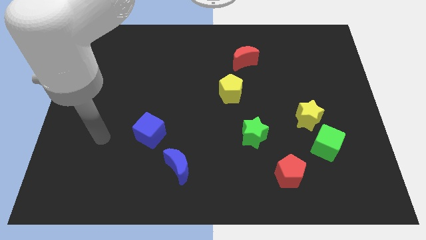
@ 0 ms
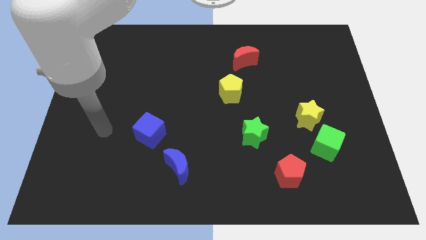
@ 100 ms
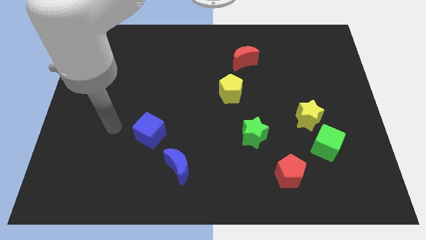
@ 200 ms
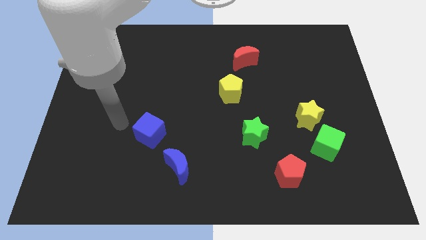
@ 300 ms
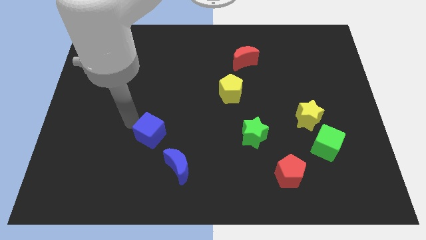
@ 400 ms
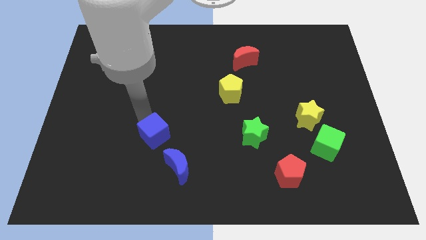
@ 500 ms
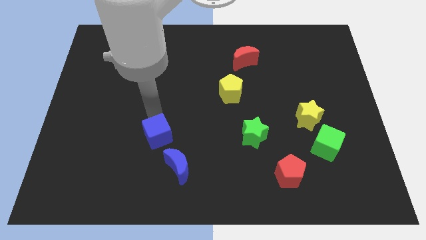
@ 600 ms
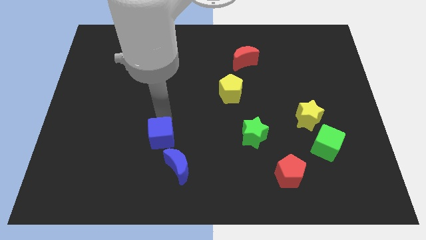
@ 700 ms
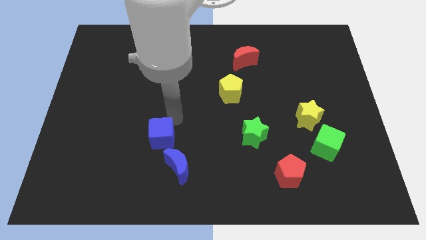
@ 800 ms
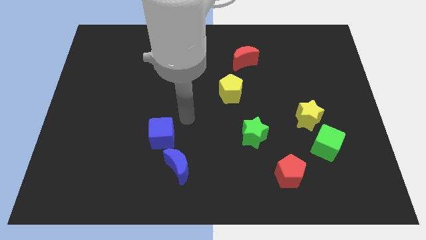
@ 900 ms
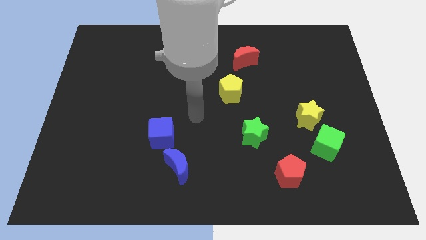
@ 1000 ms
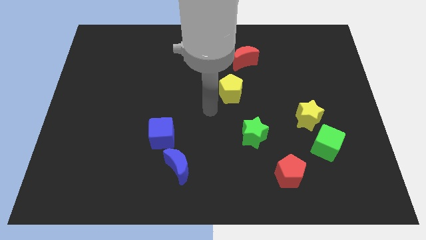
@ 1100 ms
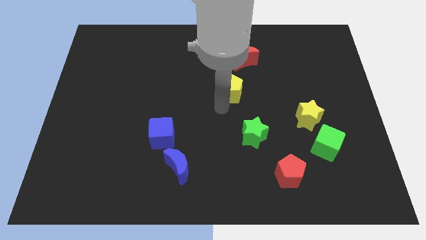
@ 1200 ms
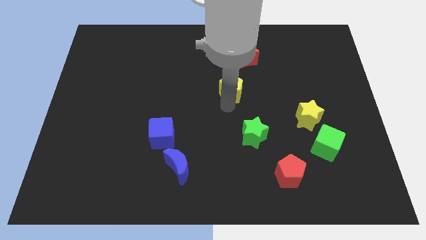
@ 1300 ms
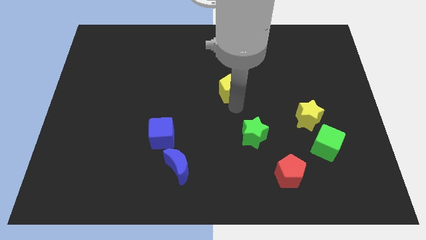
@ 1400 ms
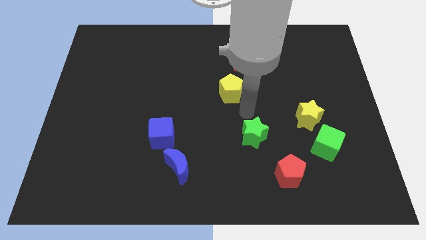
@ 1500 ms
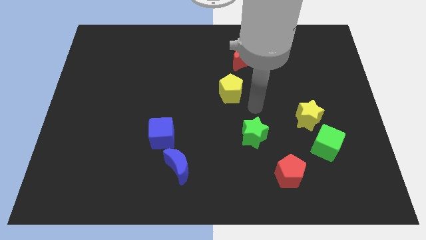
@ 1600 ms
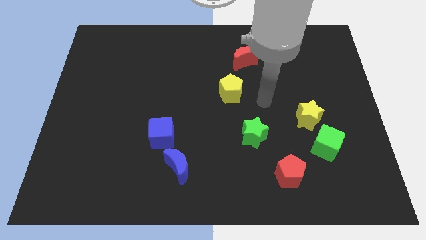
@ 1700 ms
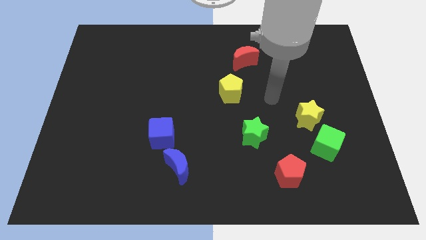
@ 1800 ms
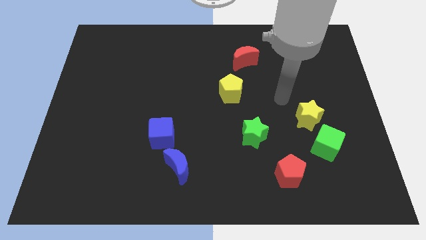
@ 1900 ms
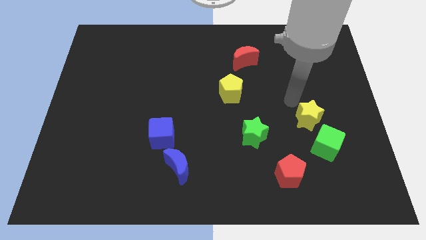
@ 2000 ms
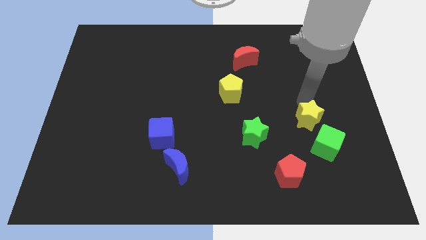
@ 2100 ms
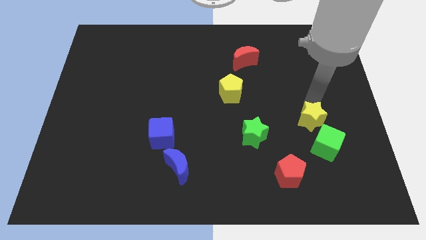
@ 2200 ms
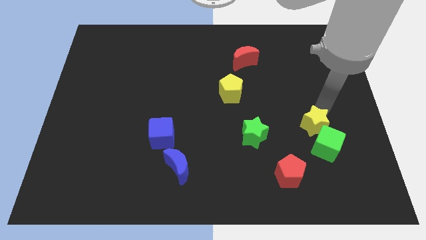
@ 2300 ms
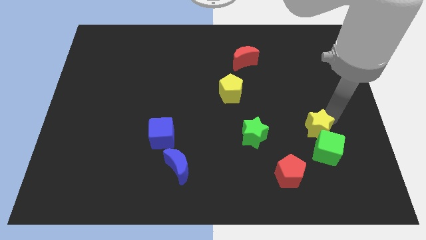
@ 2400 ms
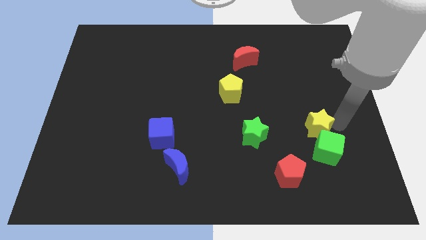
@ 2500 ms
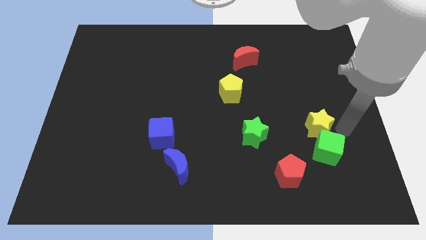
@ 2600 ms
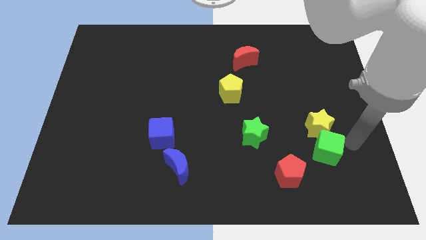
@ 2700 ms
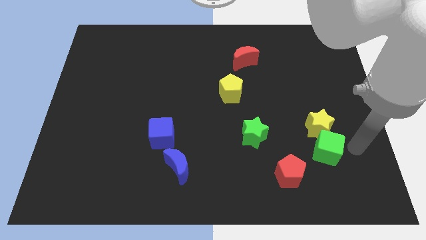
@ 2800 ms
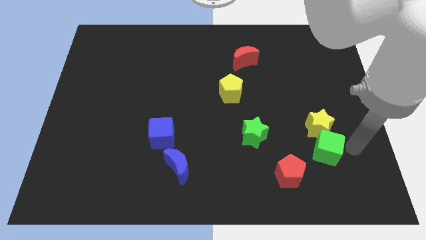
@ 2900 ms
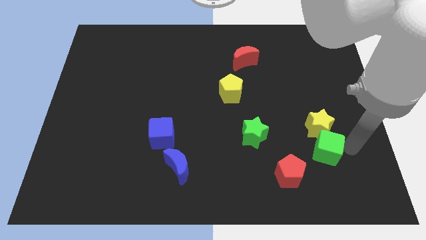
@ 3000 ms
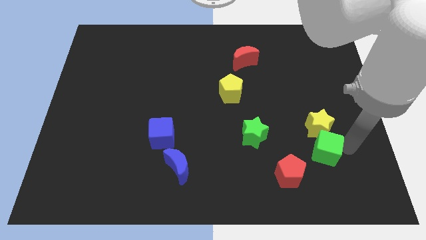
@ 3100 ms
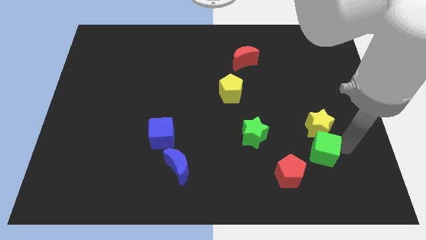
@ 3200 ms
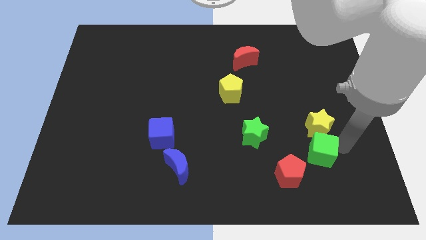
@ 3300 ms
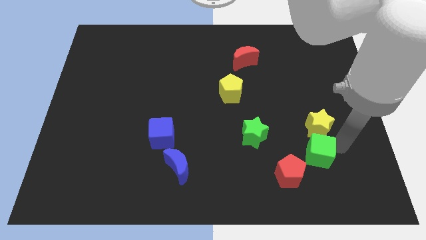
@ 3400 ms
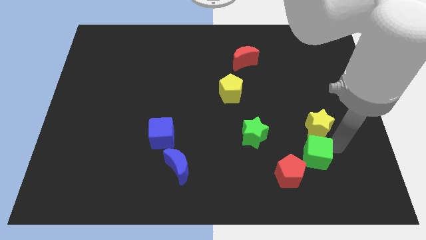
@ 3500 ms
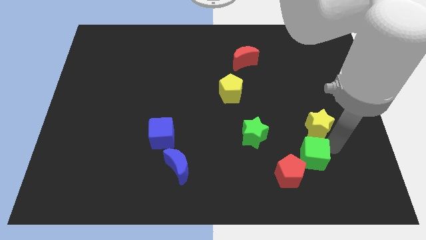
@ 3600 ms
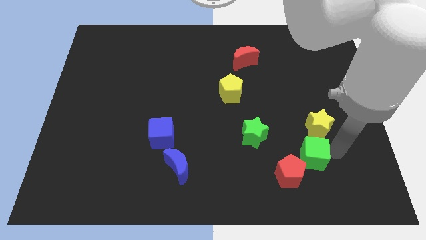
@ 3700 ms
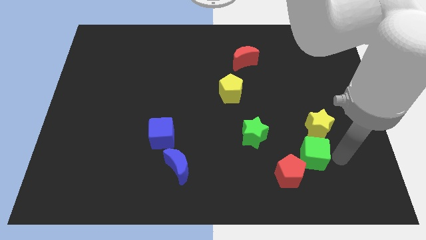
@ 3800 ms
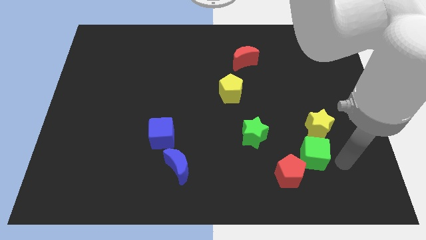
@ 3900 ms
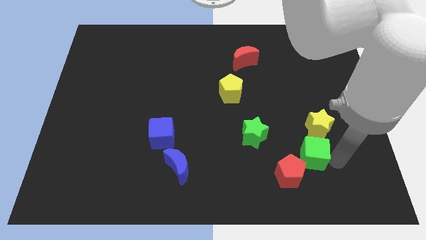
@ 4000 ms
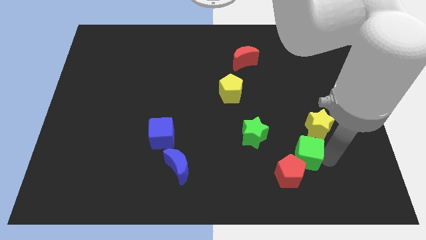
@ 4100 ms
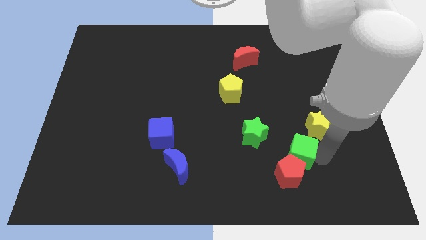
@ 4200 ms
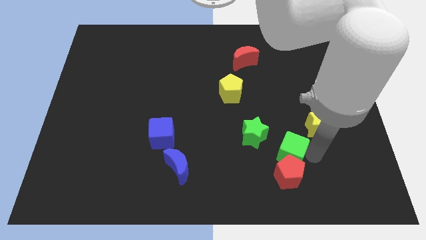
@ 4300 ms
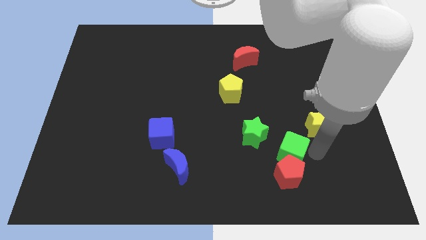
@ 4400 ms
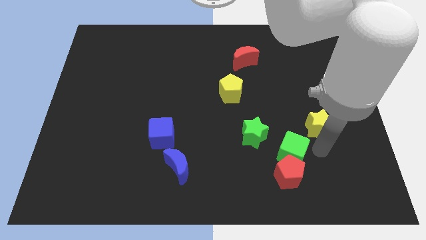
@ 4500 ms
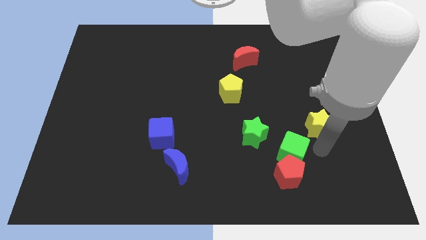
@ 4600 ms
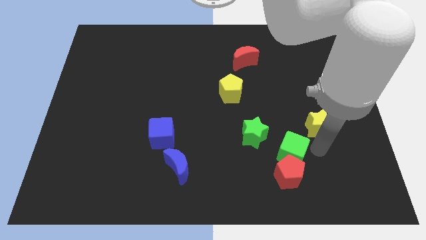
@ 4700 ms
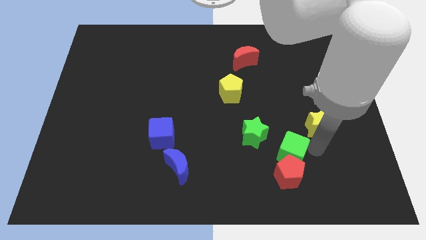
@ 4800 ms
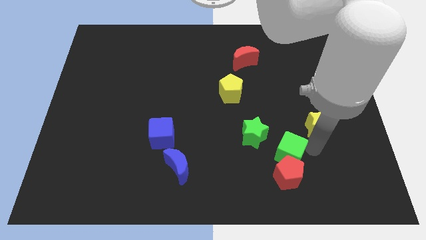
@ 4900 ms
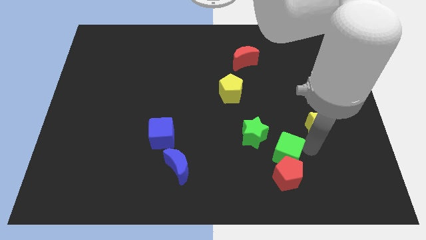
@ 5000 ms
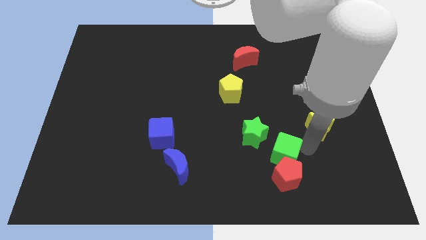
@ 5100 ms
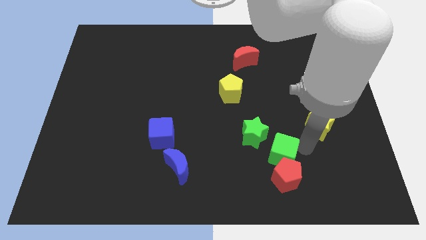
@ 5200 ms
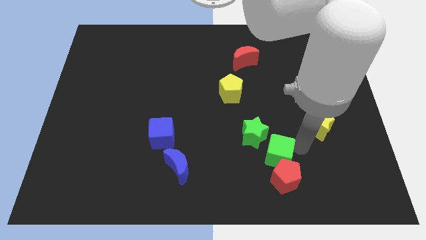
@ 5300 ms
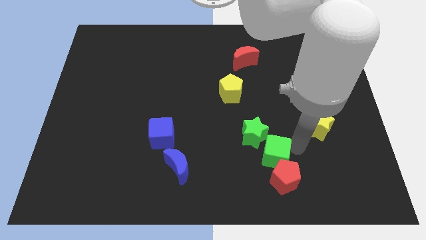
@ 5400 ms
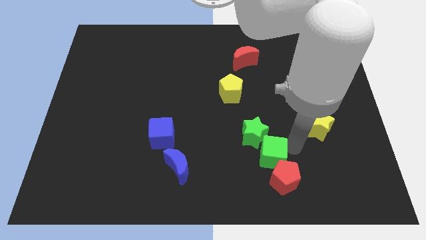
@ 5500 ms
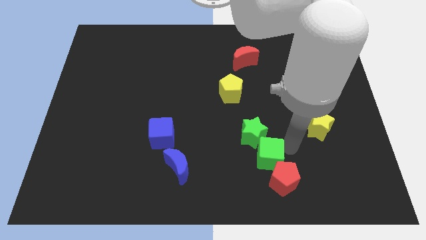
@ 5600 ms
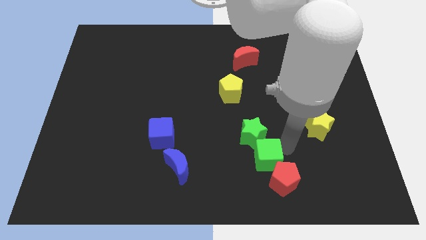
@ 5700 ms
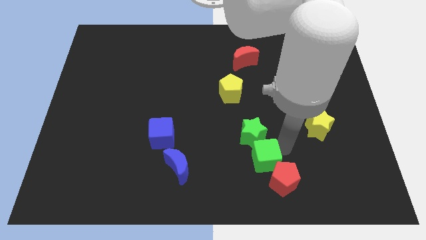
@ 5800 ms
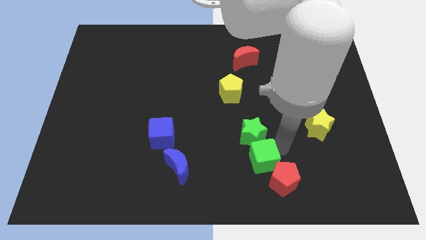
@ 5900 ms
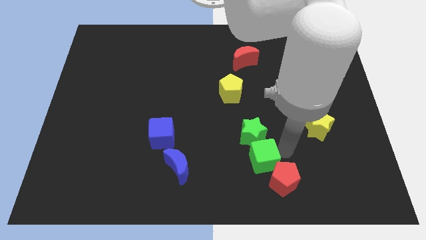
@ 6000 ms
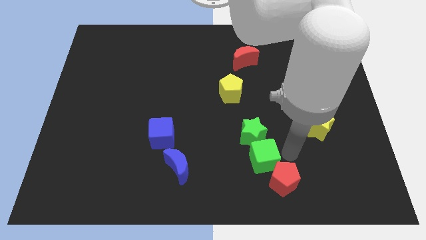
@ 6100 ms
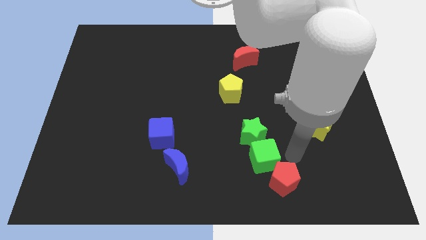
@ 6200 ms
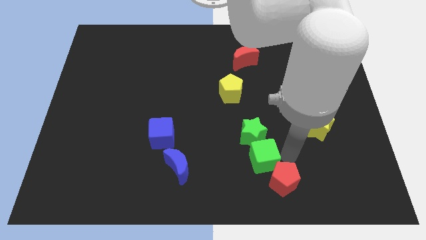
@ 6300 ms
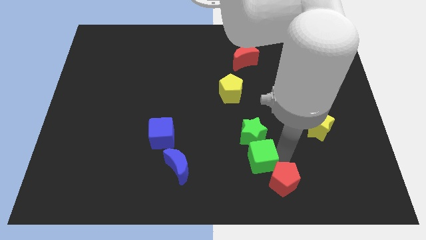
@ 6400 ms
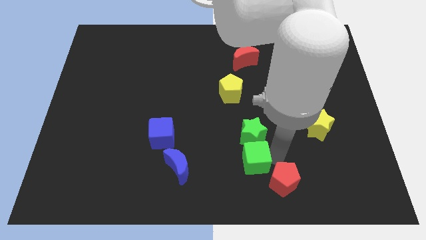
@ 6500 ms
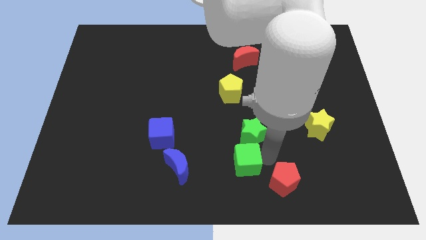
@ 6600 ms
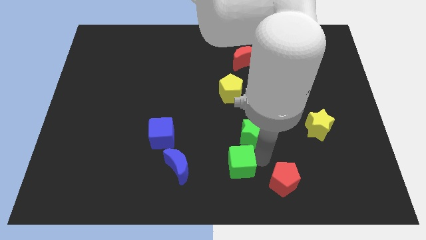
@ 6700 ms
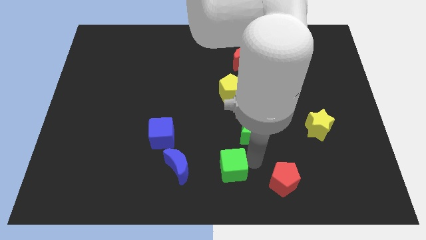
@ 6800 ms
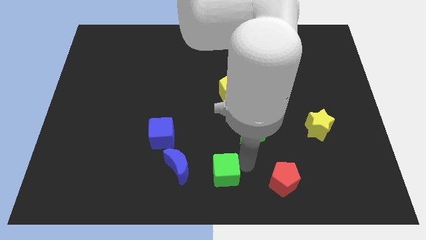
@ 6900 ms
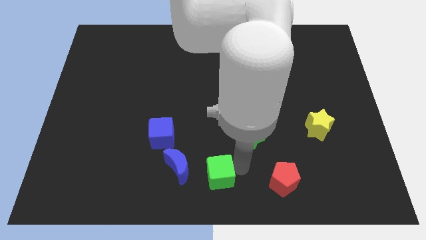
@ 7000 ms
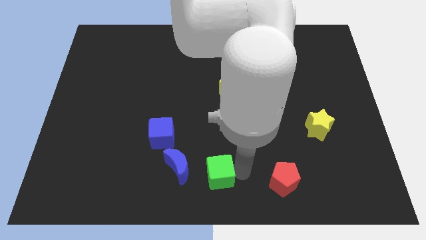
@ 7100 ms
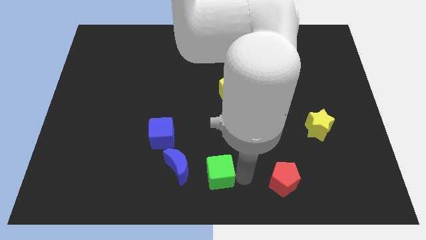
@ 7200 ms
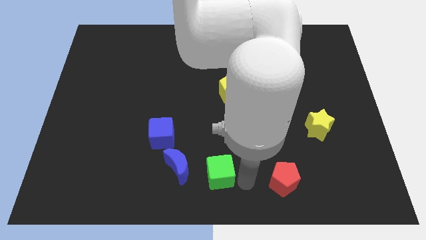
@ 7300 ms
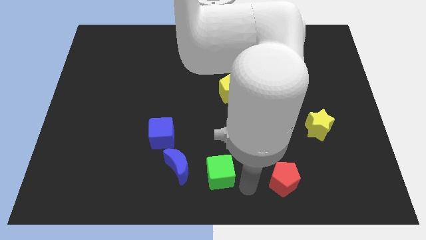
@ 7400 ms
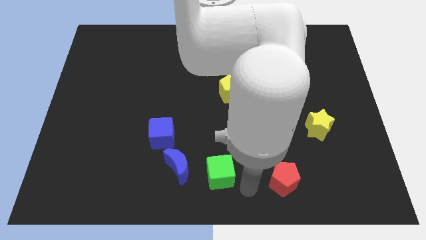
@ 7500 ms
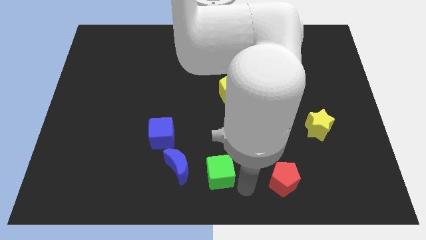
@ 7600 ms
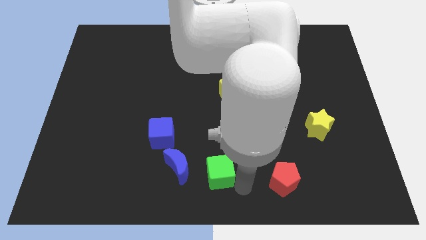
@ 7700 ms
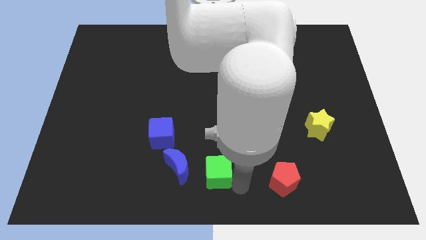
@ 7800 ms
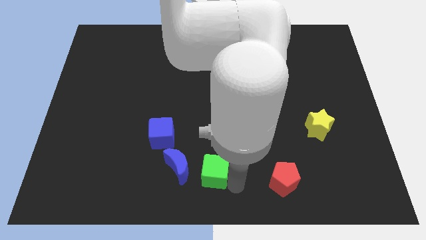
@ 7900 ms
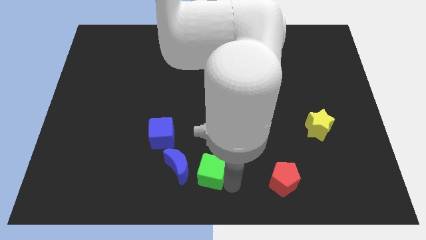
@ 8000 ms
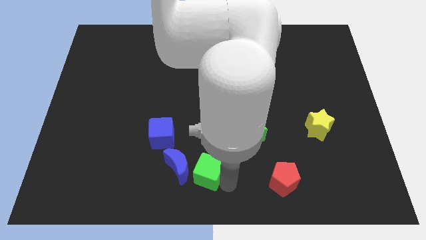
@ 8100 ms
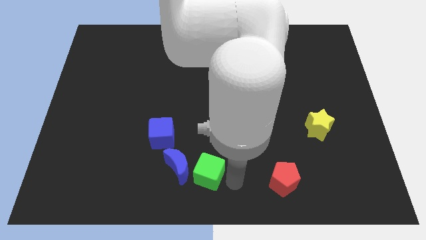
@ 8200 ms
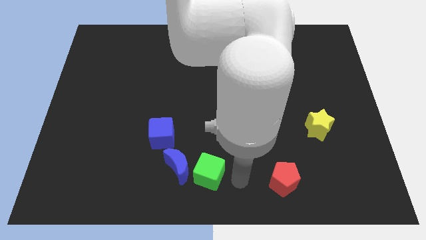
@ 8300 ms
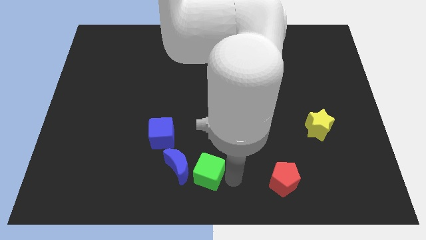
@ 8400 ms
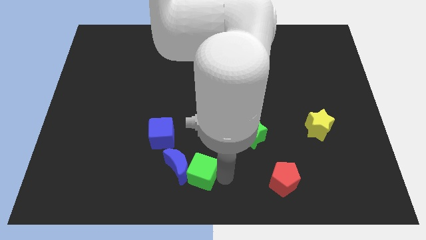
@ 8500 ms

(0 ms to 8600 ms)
put the green cube to the blue moon
